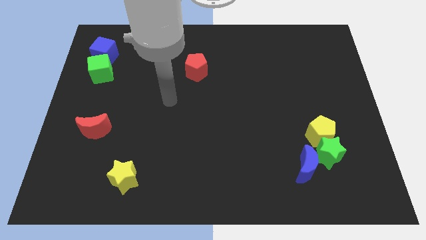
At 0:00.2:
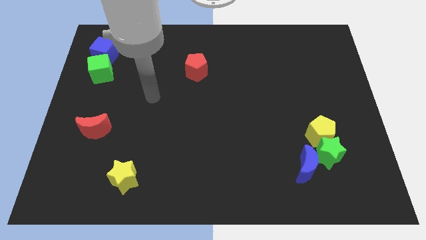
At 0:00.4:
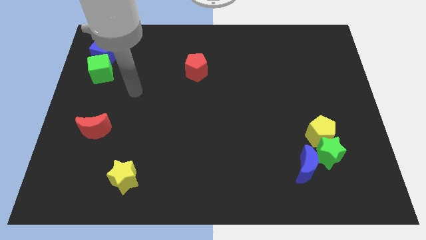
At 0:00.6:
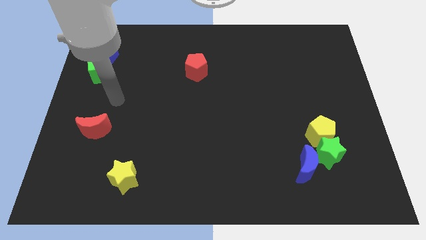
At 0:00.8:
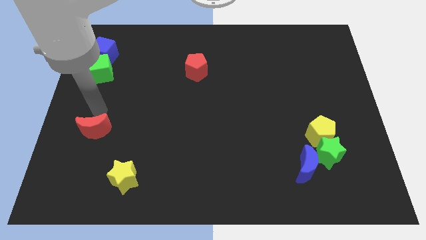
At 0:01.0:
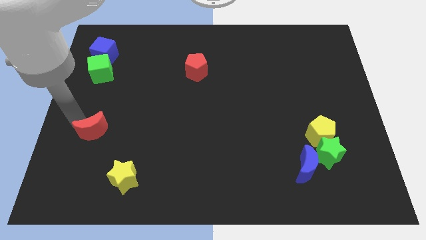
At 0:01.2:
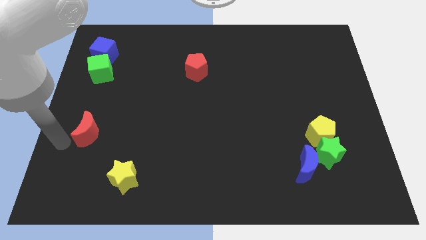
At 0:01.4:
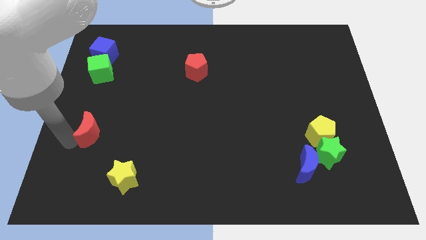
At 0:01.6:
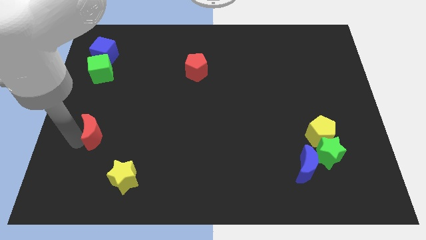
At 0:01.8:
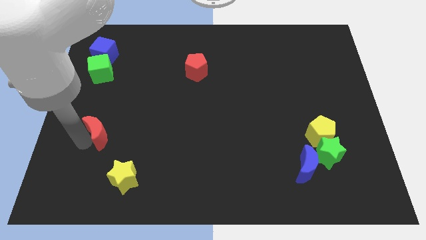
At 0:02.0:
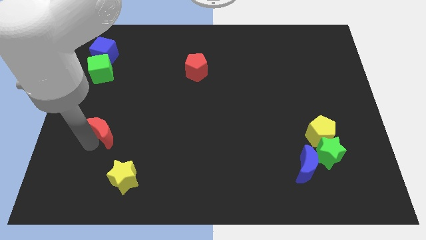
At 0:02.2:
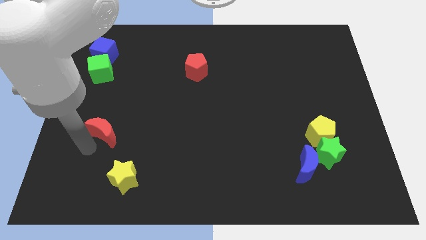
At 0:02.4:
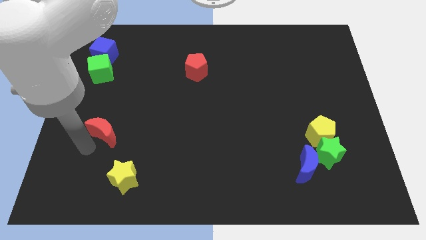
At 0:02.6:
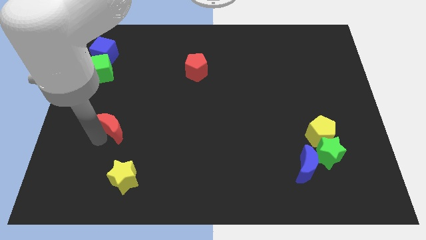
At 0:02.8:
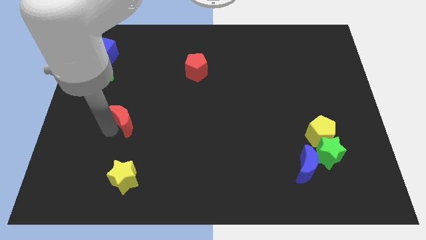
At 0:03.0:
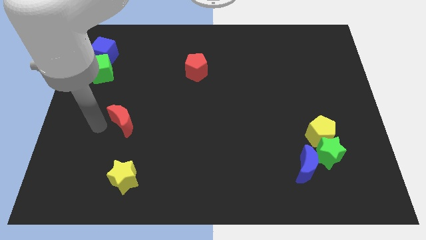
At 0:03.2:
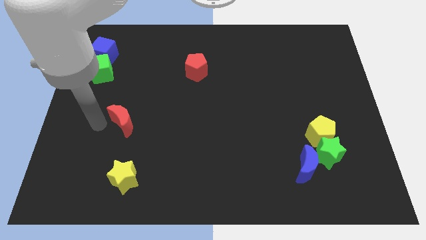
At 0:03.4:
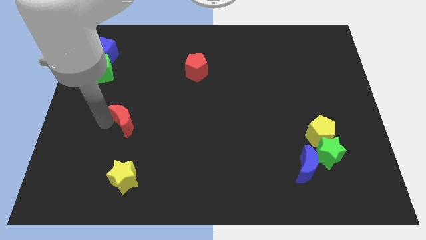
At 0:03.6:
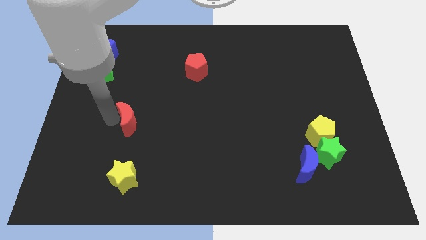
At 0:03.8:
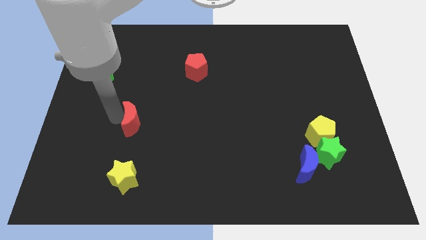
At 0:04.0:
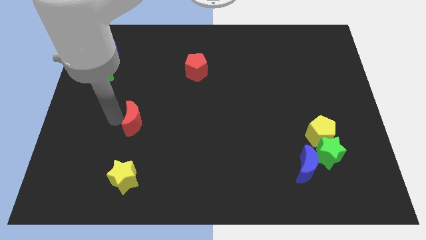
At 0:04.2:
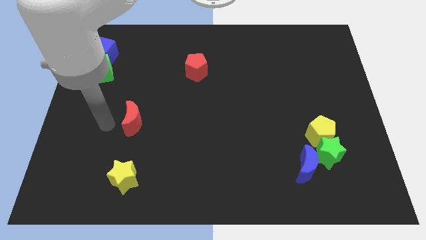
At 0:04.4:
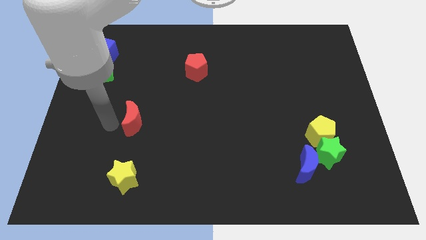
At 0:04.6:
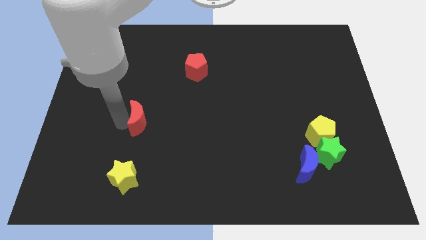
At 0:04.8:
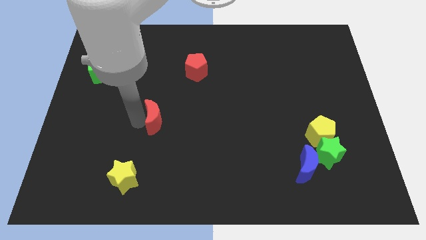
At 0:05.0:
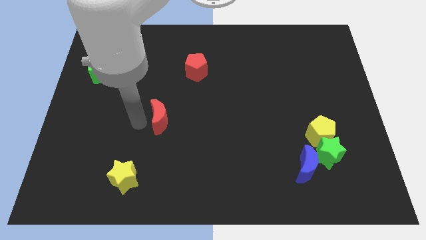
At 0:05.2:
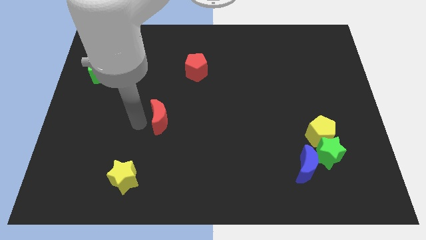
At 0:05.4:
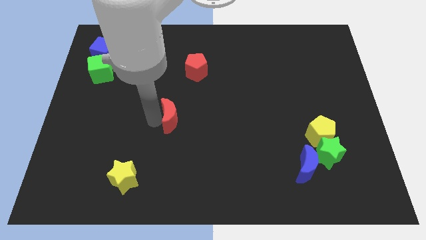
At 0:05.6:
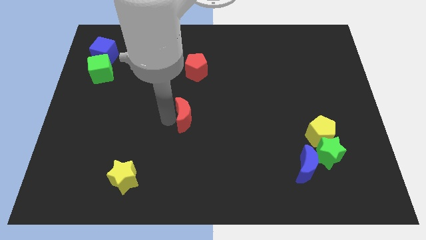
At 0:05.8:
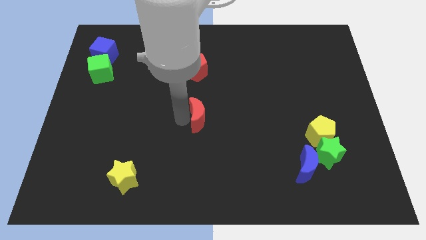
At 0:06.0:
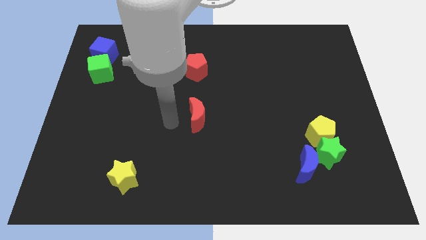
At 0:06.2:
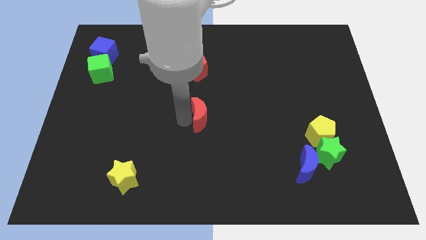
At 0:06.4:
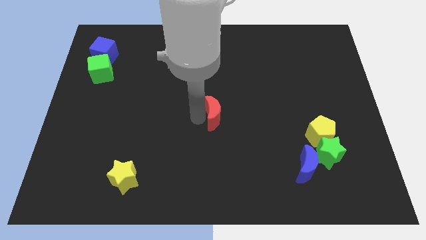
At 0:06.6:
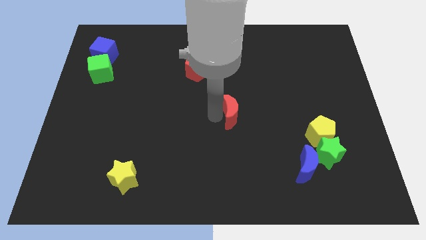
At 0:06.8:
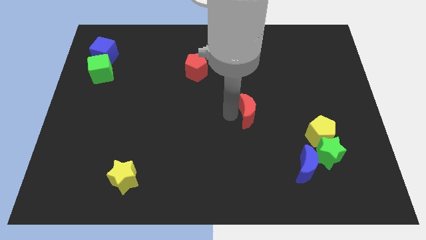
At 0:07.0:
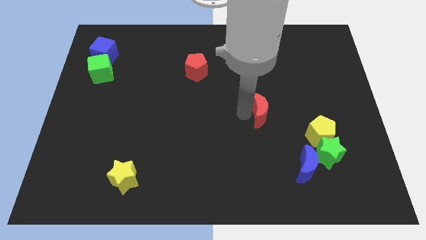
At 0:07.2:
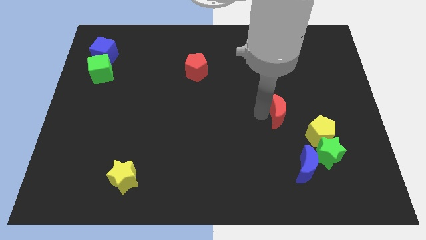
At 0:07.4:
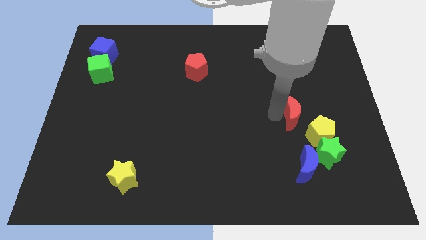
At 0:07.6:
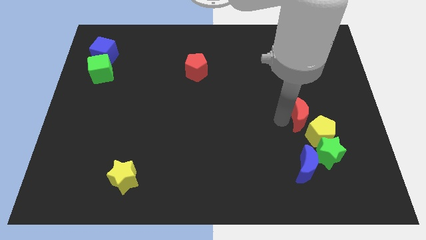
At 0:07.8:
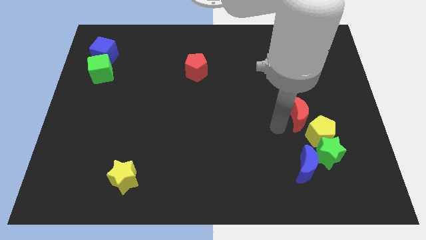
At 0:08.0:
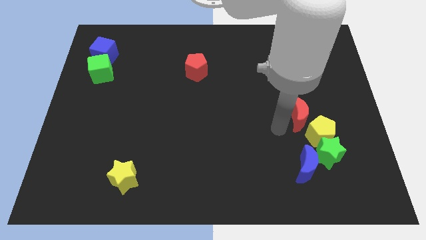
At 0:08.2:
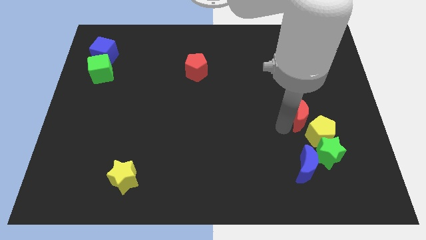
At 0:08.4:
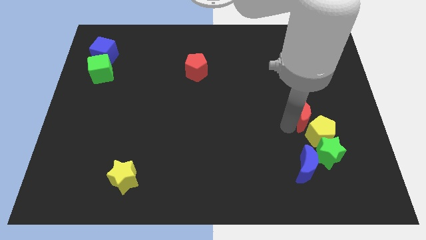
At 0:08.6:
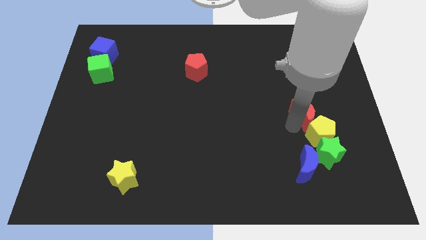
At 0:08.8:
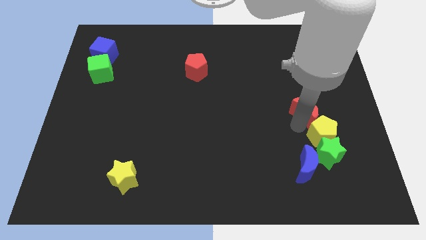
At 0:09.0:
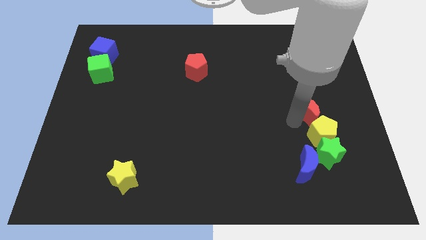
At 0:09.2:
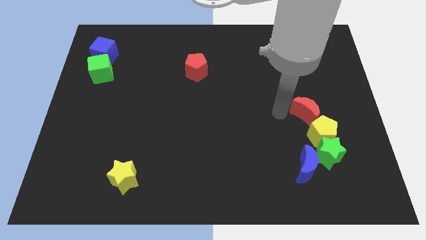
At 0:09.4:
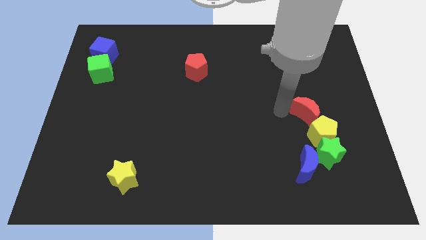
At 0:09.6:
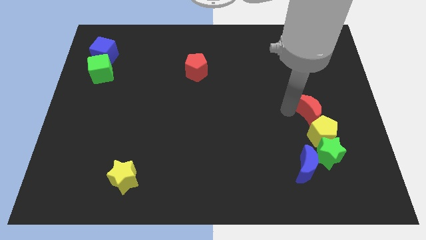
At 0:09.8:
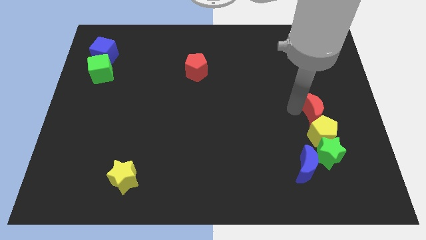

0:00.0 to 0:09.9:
move the red moon to the top right side of the yellow pentagon

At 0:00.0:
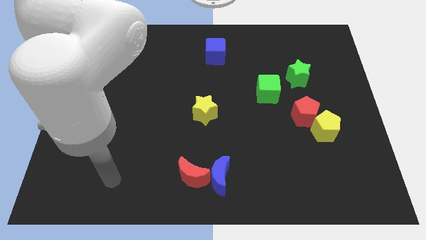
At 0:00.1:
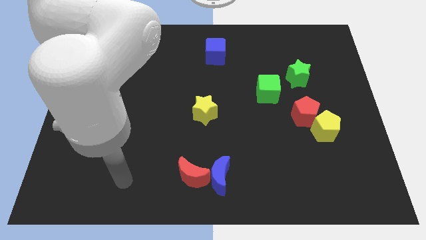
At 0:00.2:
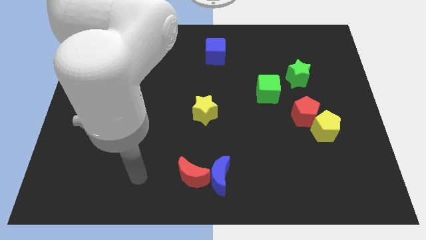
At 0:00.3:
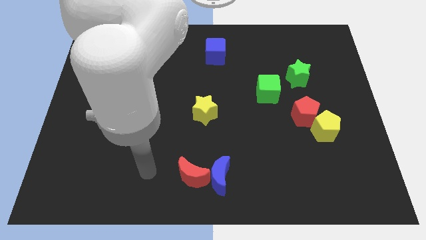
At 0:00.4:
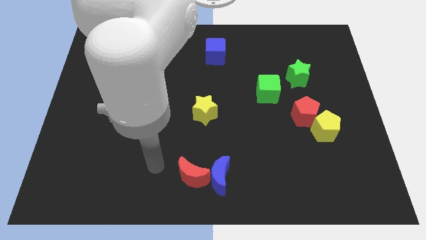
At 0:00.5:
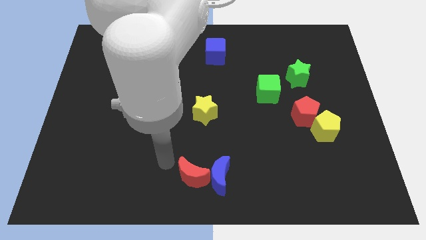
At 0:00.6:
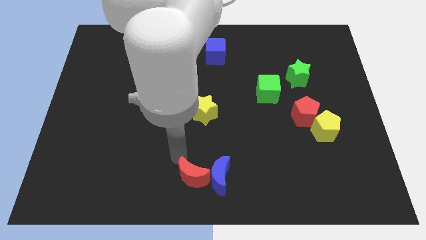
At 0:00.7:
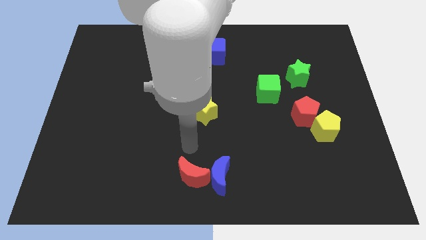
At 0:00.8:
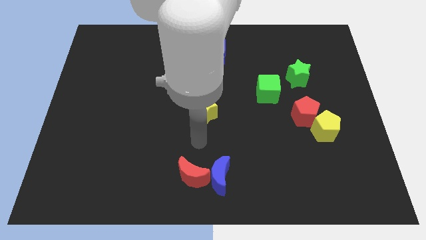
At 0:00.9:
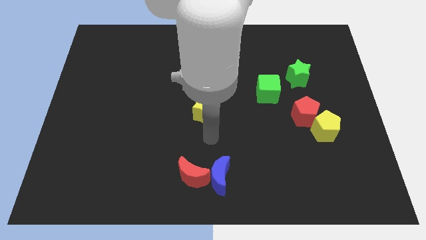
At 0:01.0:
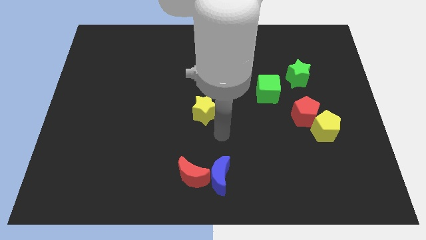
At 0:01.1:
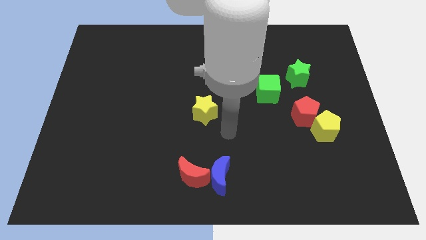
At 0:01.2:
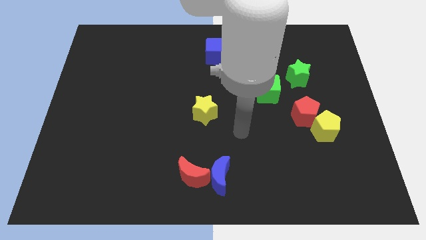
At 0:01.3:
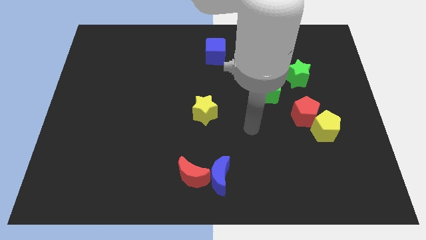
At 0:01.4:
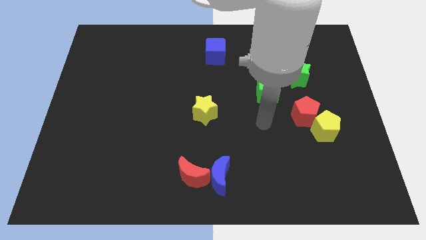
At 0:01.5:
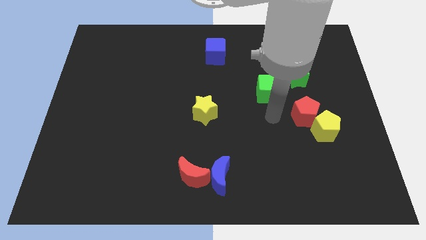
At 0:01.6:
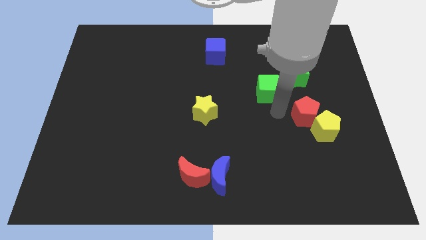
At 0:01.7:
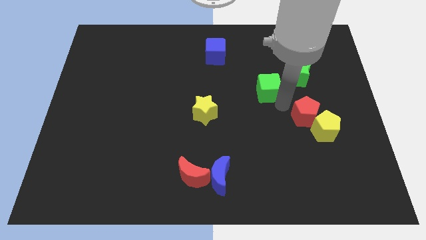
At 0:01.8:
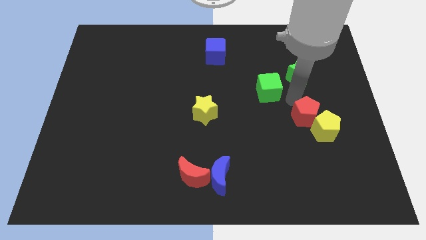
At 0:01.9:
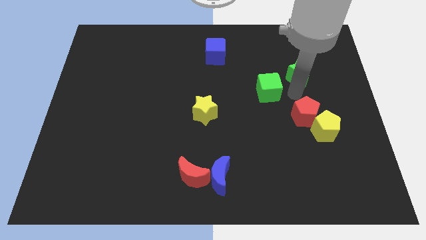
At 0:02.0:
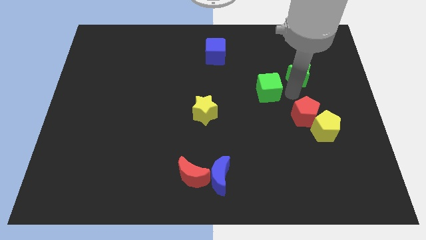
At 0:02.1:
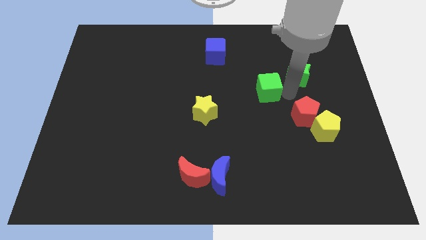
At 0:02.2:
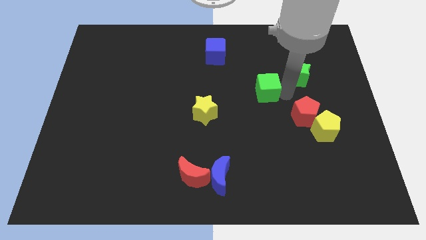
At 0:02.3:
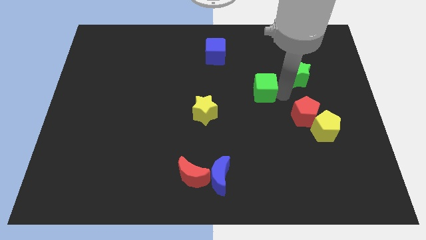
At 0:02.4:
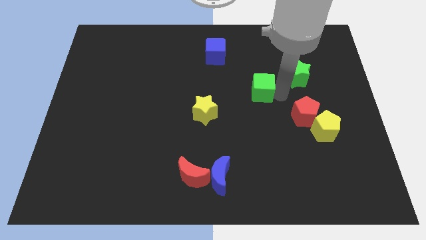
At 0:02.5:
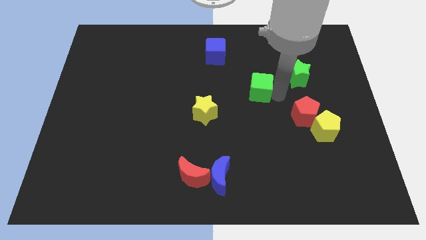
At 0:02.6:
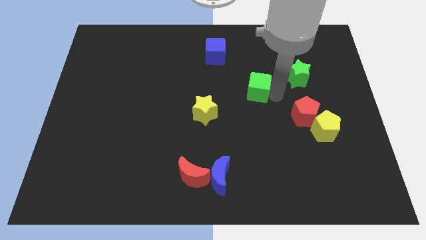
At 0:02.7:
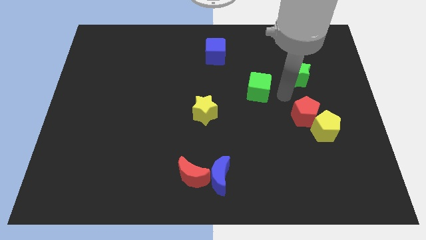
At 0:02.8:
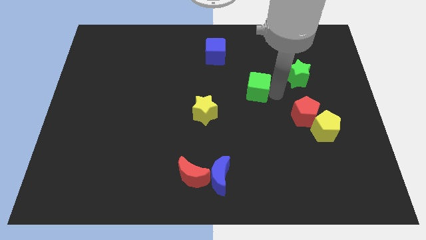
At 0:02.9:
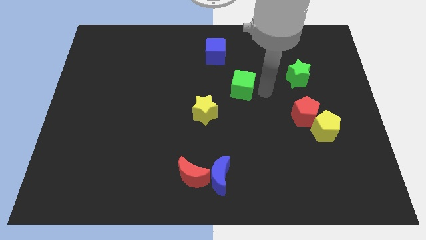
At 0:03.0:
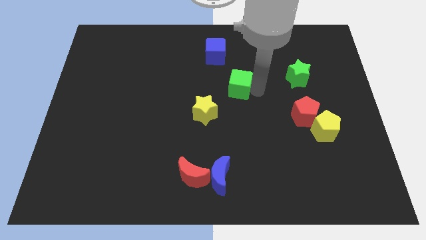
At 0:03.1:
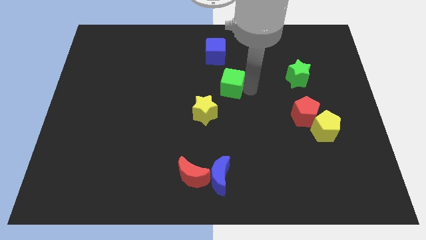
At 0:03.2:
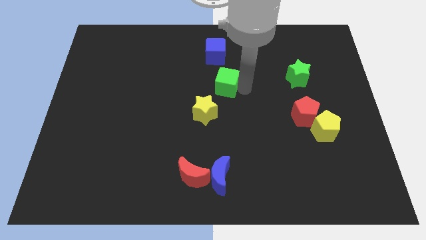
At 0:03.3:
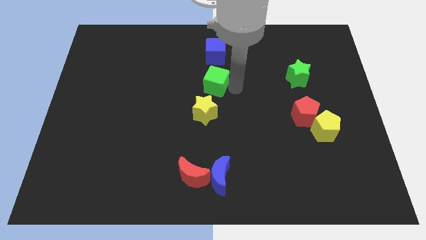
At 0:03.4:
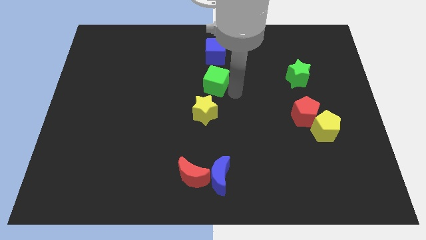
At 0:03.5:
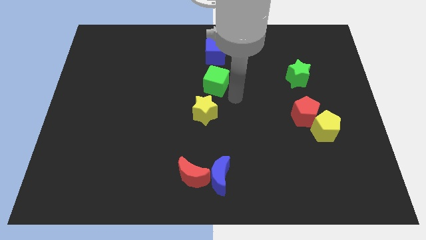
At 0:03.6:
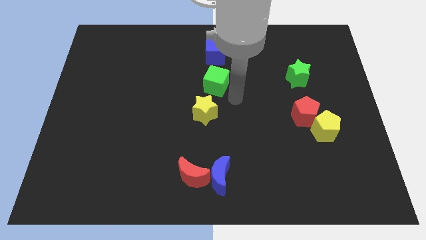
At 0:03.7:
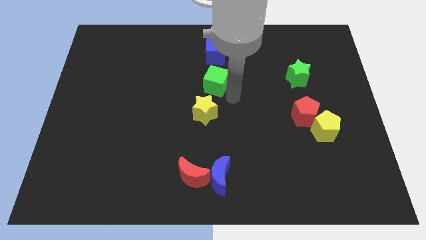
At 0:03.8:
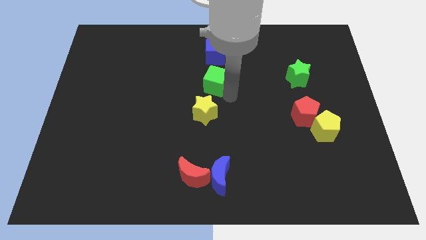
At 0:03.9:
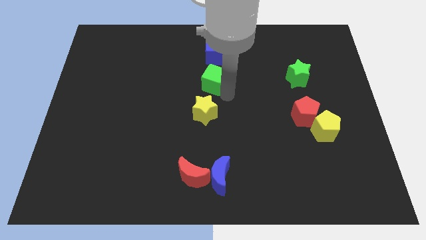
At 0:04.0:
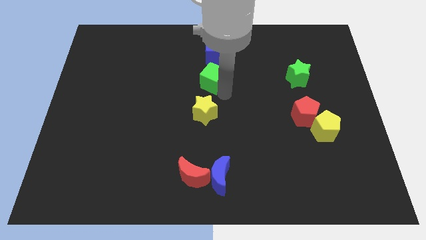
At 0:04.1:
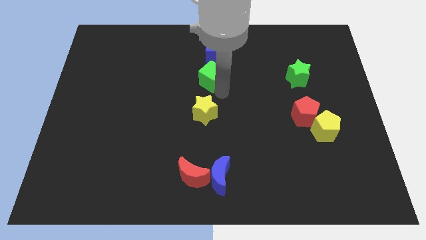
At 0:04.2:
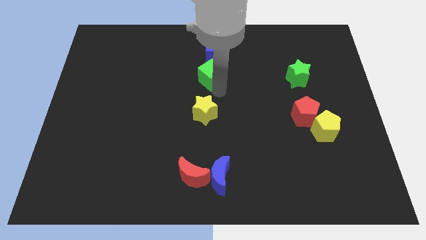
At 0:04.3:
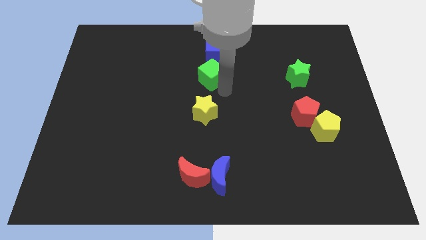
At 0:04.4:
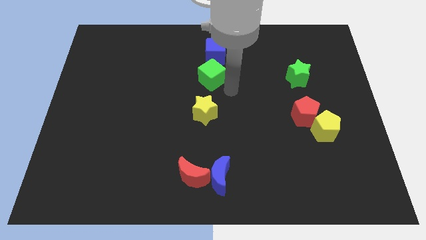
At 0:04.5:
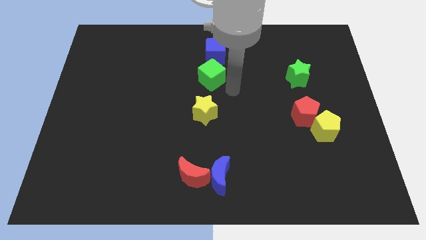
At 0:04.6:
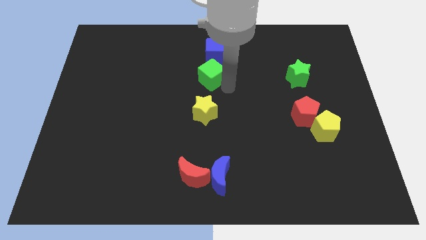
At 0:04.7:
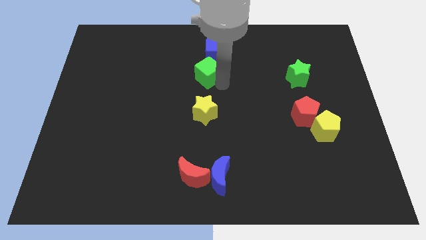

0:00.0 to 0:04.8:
move the green cube diagonally down and to the left of the blue cube
